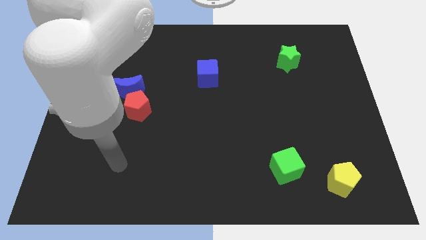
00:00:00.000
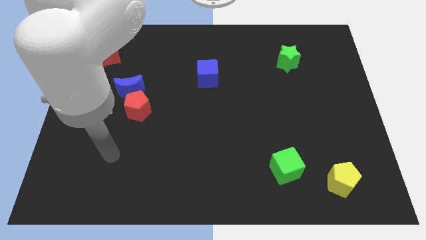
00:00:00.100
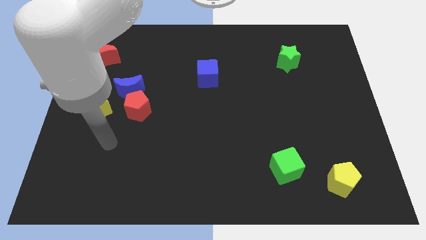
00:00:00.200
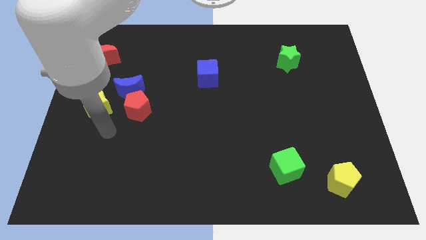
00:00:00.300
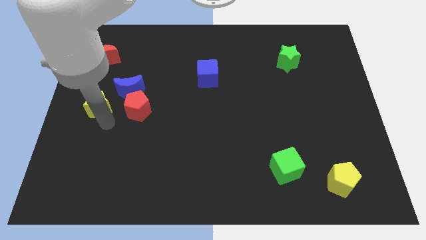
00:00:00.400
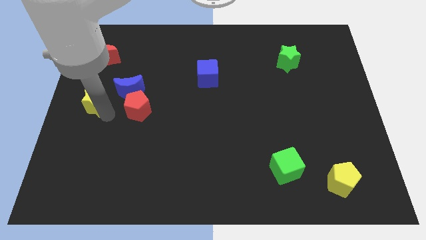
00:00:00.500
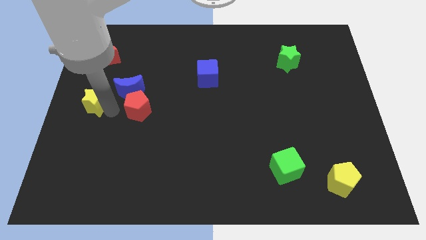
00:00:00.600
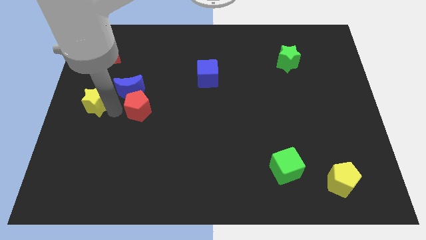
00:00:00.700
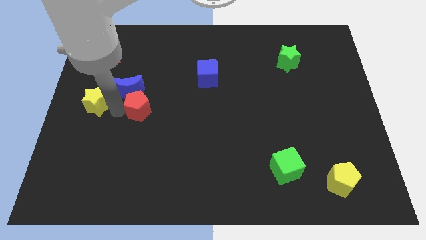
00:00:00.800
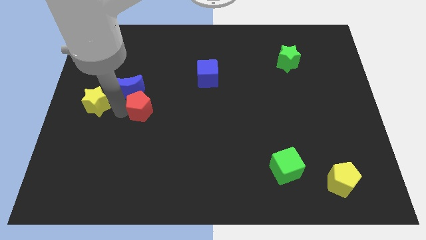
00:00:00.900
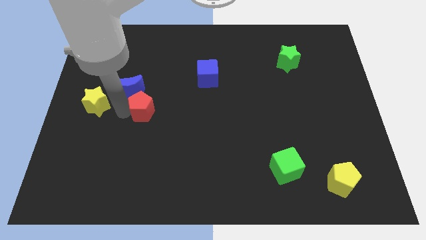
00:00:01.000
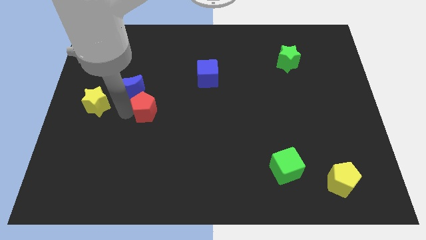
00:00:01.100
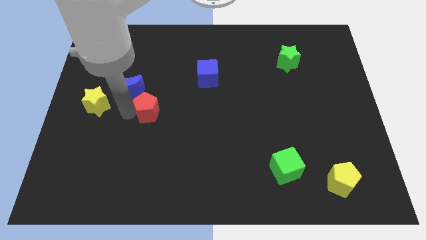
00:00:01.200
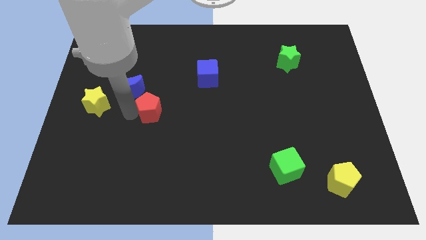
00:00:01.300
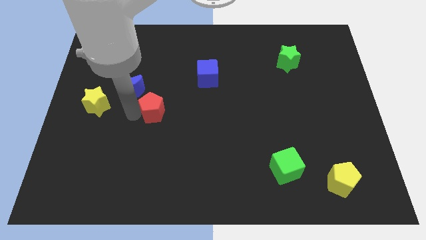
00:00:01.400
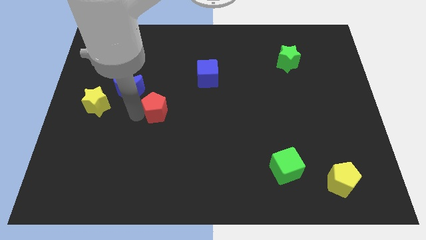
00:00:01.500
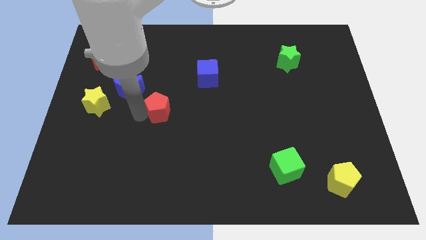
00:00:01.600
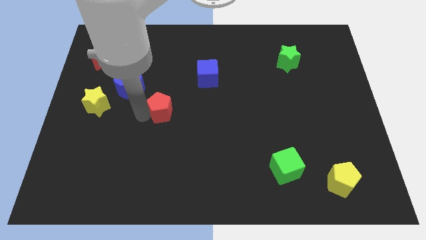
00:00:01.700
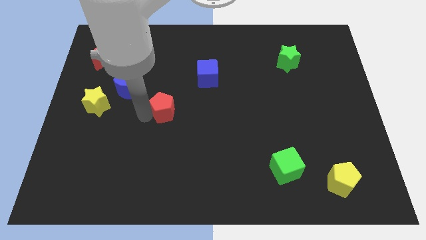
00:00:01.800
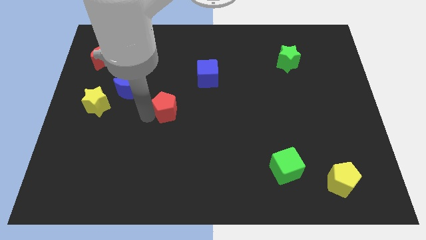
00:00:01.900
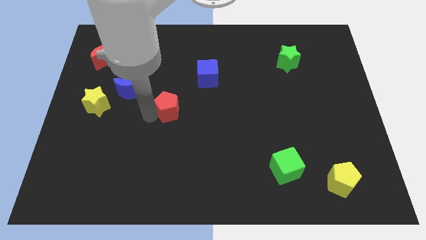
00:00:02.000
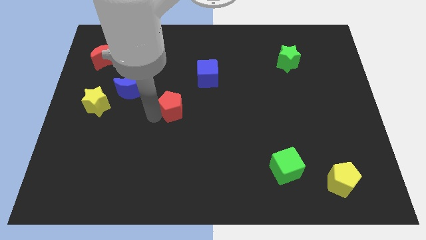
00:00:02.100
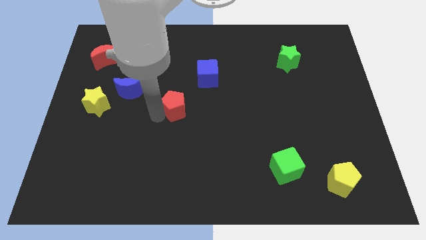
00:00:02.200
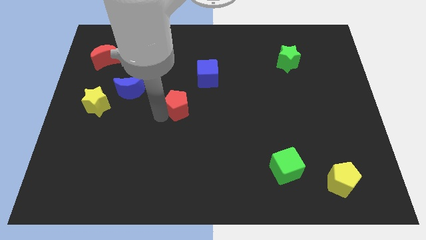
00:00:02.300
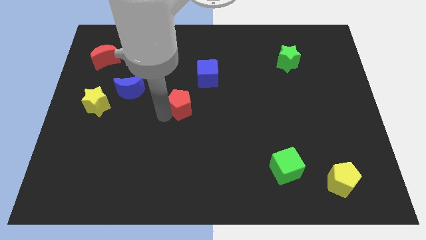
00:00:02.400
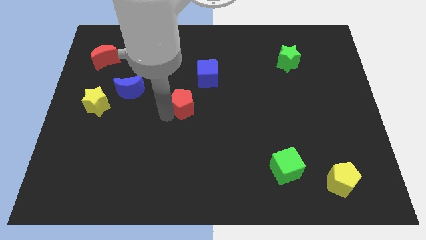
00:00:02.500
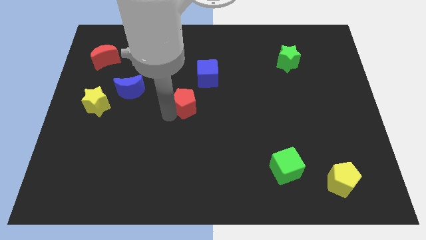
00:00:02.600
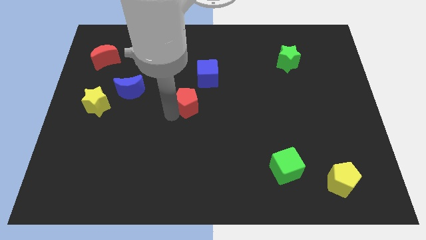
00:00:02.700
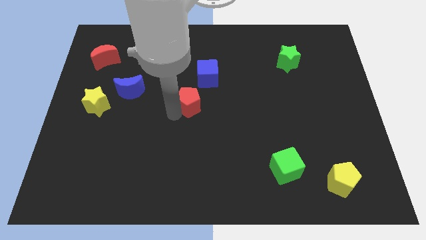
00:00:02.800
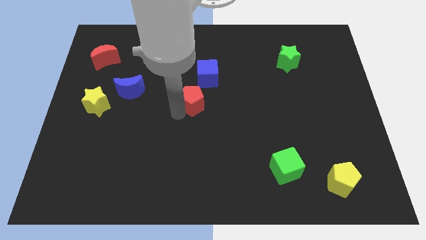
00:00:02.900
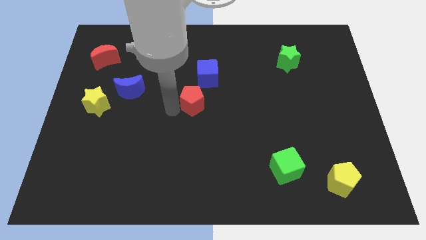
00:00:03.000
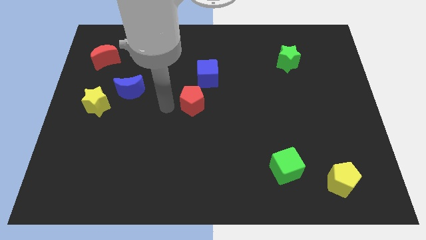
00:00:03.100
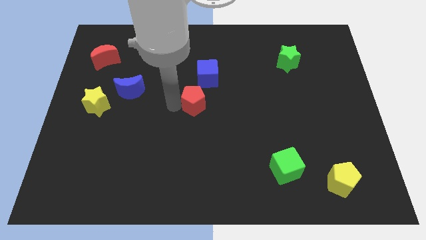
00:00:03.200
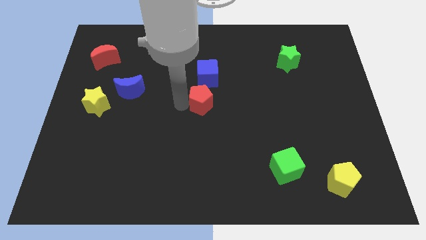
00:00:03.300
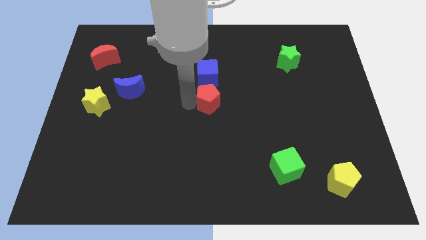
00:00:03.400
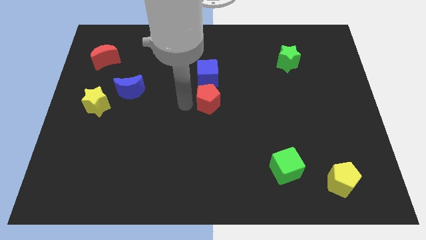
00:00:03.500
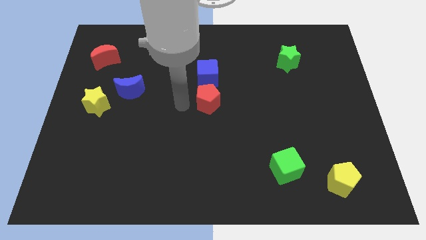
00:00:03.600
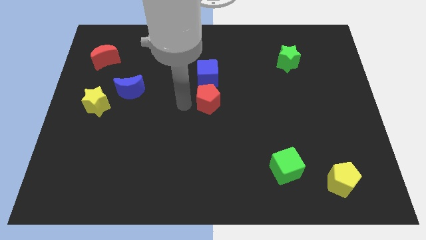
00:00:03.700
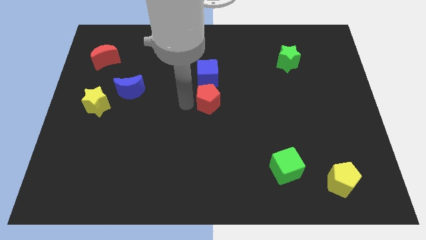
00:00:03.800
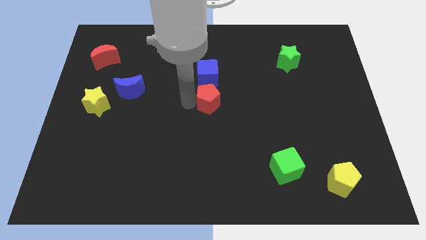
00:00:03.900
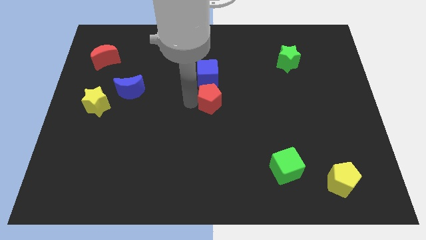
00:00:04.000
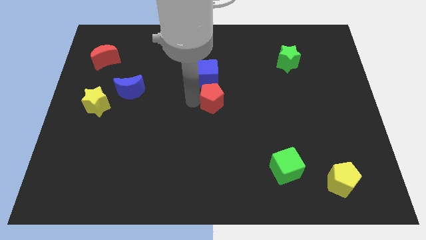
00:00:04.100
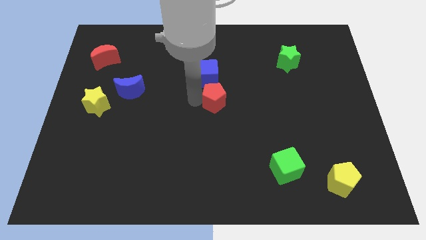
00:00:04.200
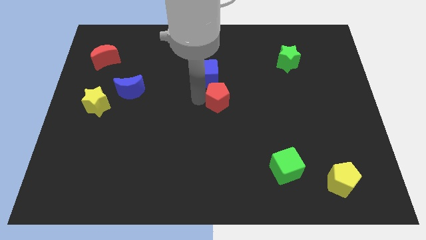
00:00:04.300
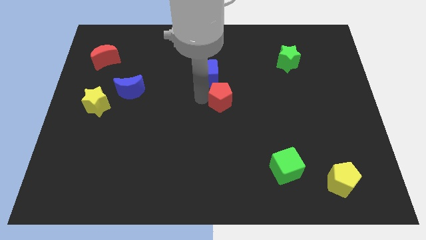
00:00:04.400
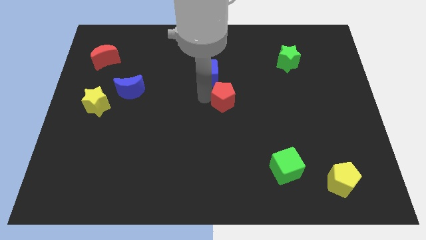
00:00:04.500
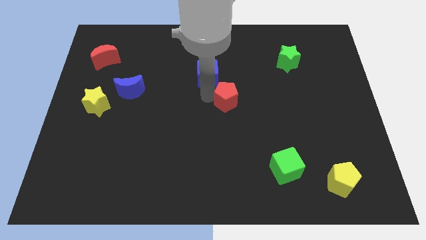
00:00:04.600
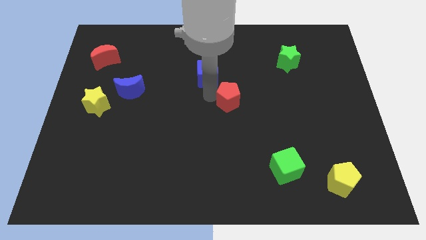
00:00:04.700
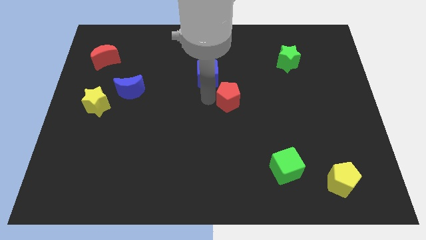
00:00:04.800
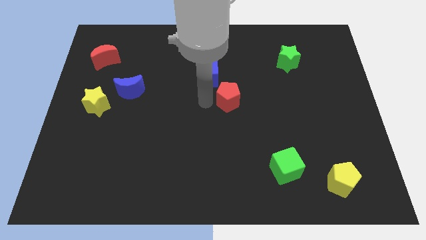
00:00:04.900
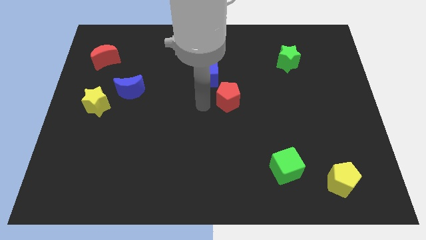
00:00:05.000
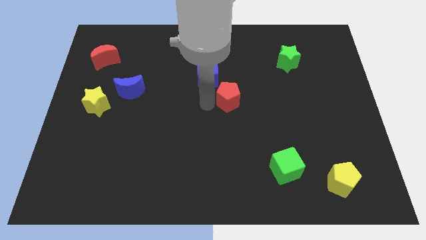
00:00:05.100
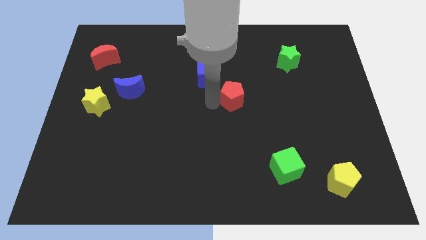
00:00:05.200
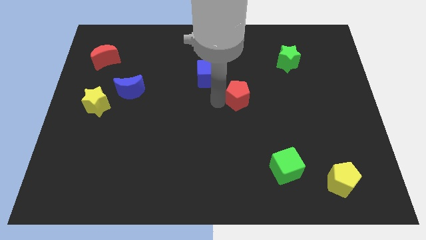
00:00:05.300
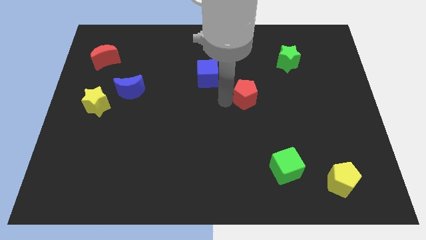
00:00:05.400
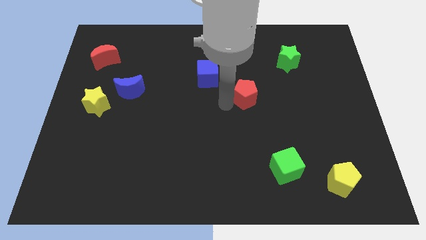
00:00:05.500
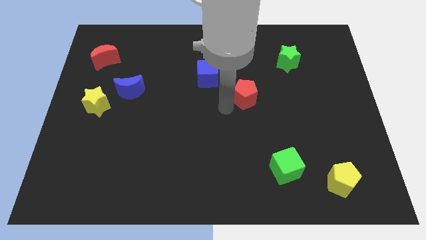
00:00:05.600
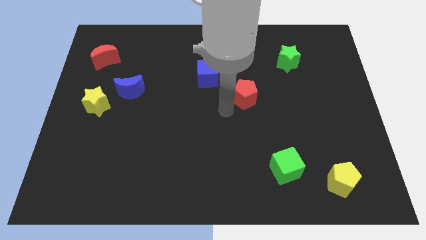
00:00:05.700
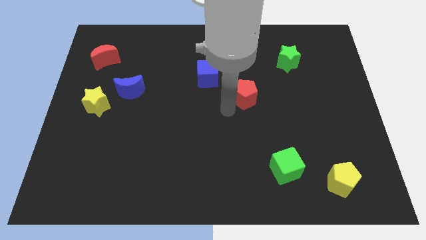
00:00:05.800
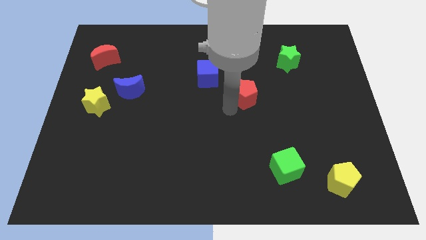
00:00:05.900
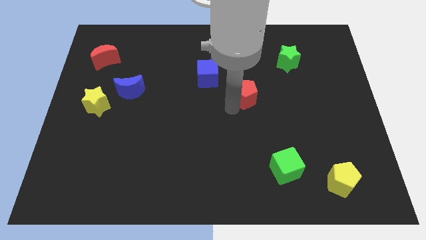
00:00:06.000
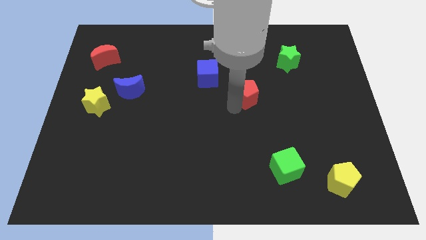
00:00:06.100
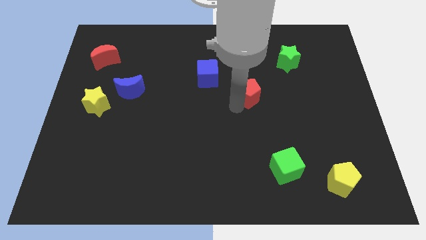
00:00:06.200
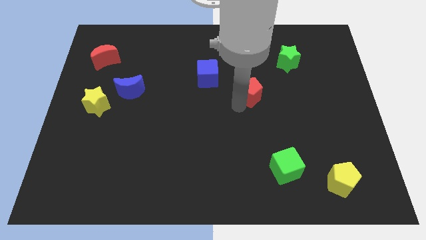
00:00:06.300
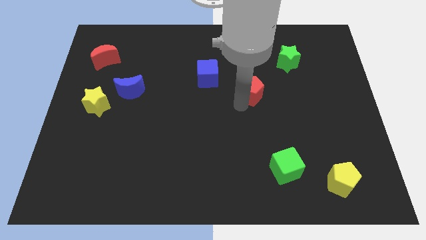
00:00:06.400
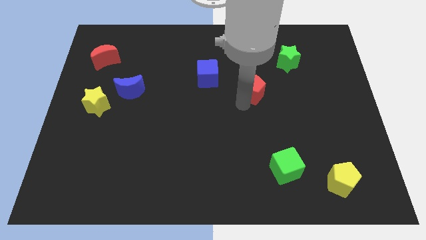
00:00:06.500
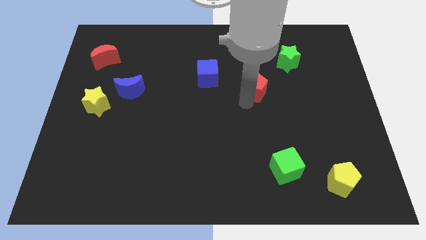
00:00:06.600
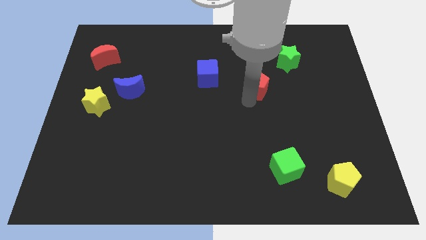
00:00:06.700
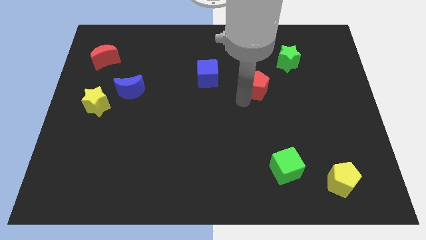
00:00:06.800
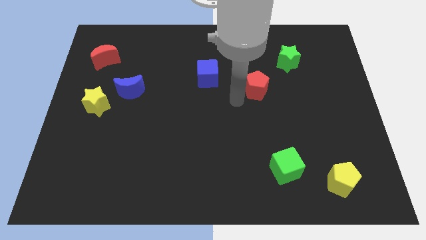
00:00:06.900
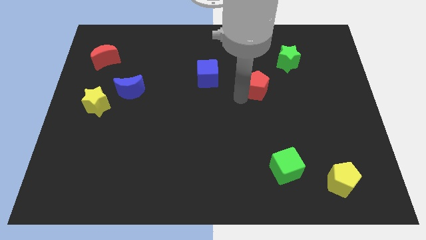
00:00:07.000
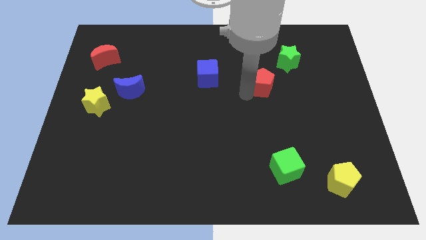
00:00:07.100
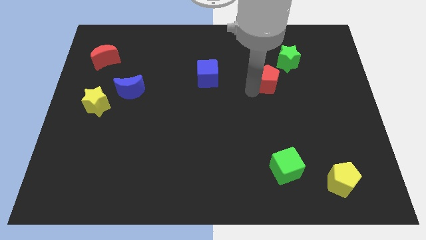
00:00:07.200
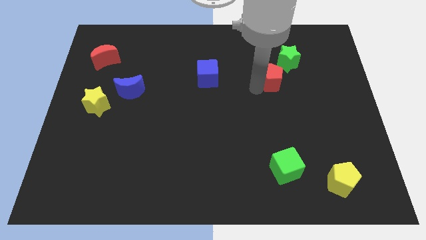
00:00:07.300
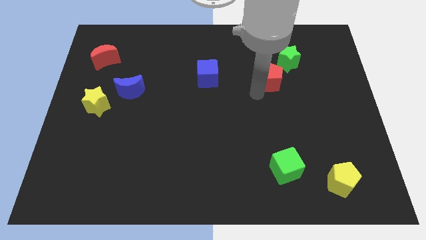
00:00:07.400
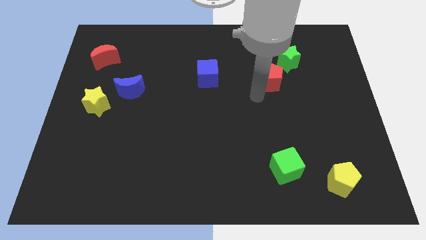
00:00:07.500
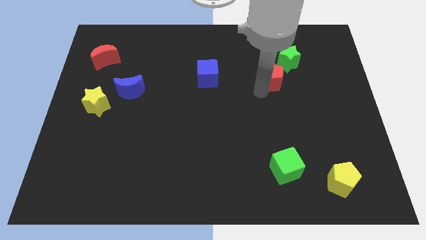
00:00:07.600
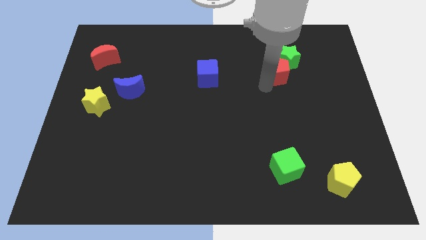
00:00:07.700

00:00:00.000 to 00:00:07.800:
move the red pentagon towards the green star
